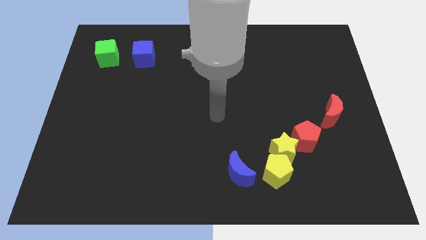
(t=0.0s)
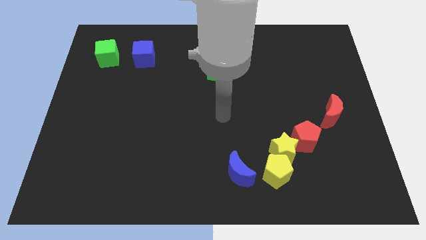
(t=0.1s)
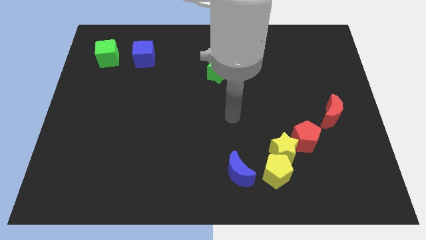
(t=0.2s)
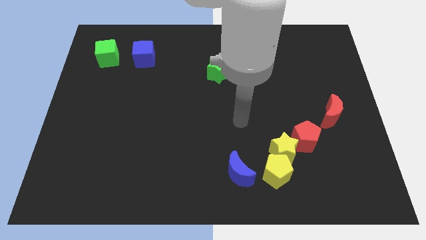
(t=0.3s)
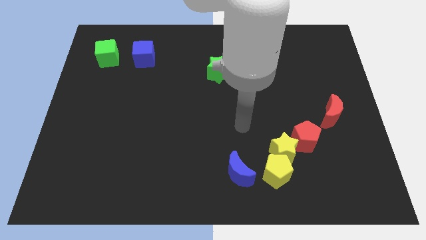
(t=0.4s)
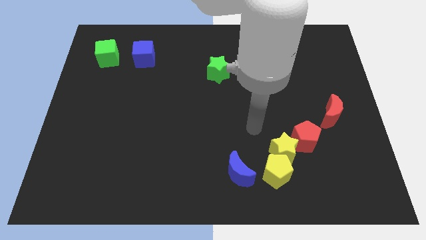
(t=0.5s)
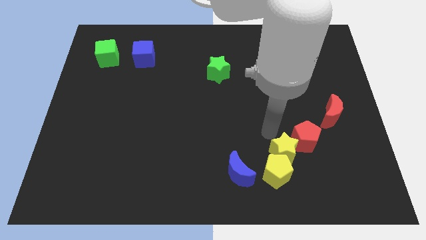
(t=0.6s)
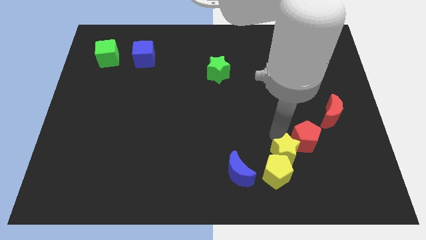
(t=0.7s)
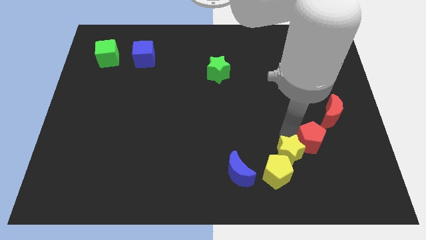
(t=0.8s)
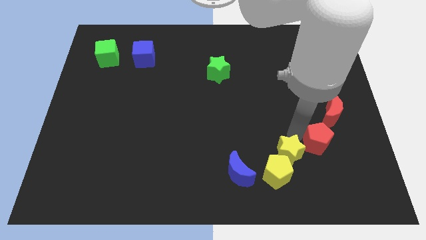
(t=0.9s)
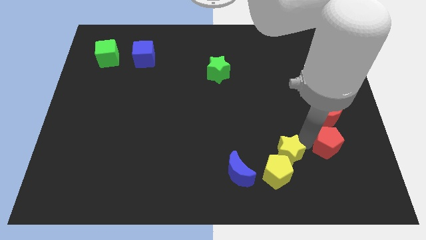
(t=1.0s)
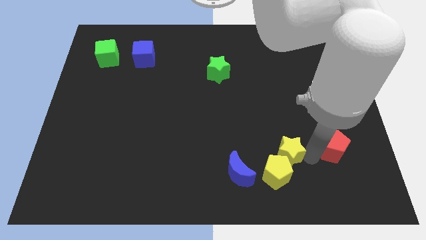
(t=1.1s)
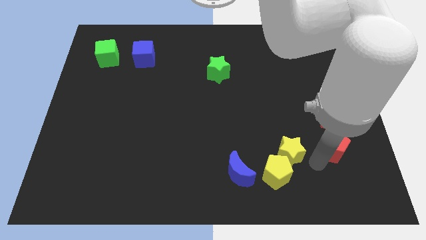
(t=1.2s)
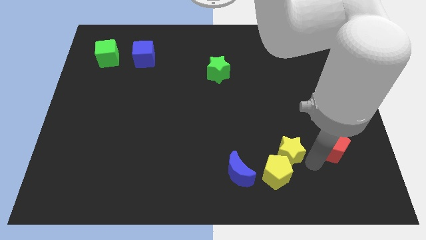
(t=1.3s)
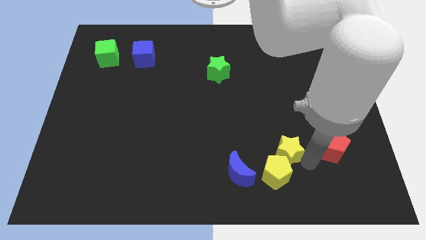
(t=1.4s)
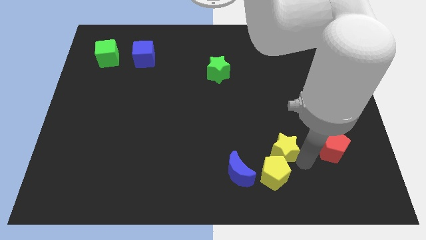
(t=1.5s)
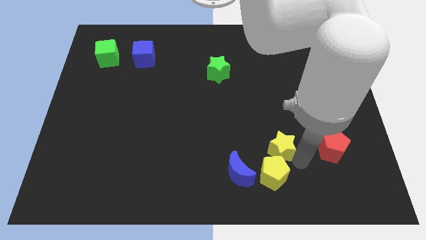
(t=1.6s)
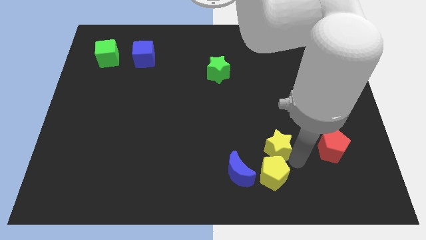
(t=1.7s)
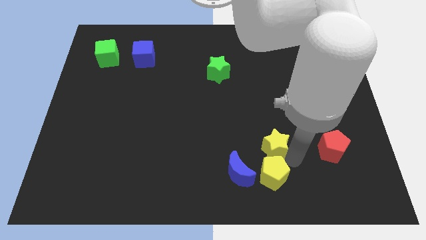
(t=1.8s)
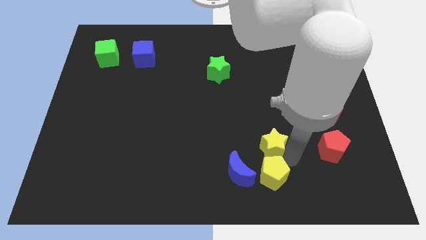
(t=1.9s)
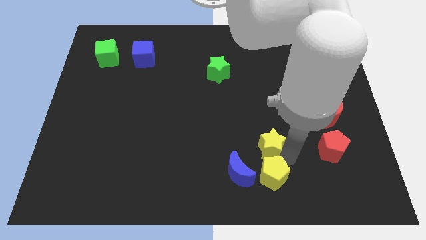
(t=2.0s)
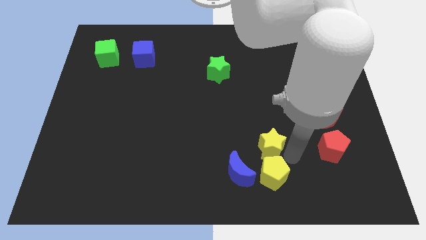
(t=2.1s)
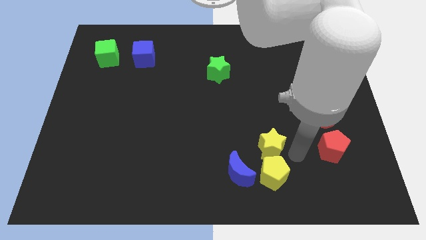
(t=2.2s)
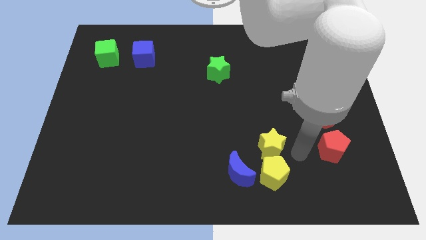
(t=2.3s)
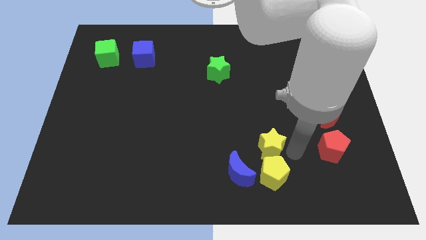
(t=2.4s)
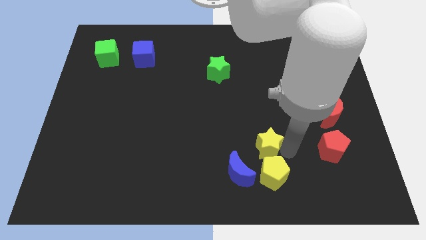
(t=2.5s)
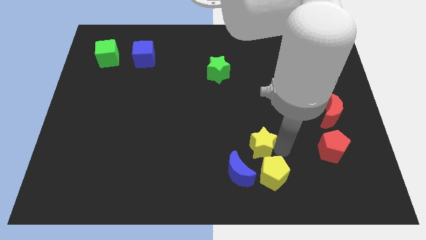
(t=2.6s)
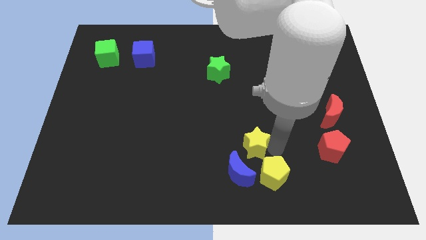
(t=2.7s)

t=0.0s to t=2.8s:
move the yellow star away from the yellow pentagon and red pentagon

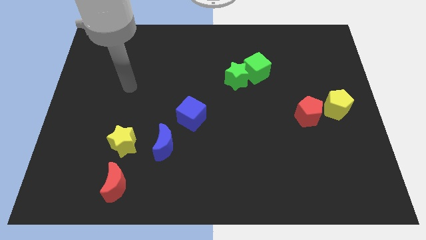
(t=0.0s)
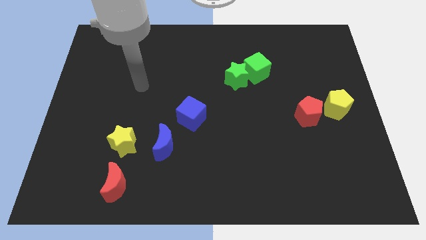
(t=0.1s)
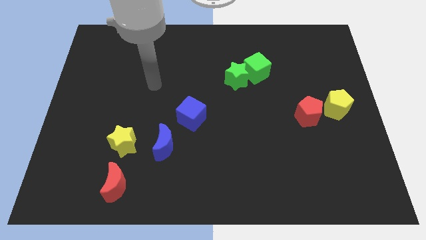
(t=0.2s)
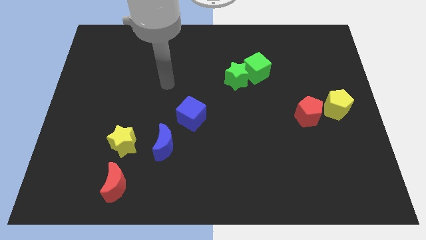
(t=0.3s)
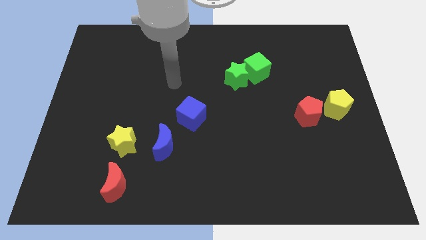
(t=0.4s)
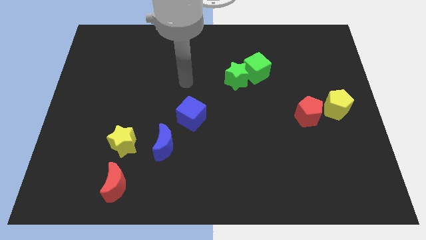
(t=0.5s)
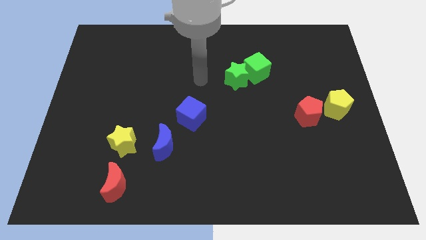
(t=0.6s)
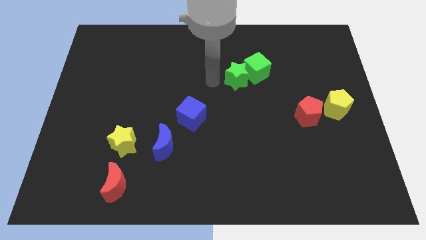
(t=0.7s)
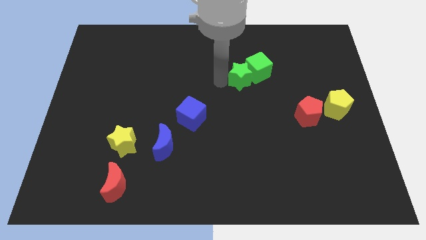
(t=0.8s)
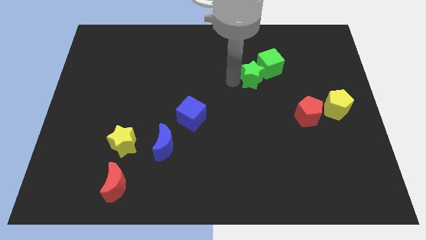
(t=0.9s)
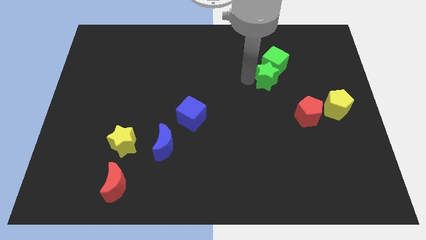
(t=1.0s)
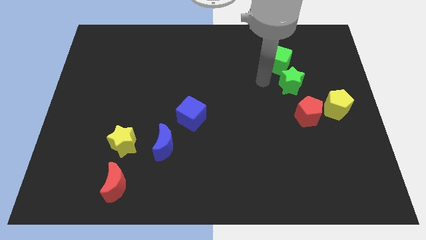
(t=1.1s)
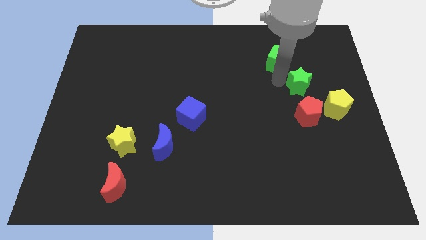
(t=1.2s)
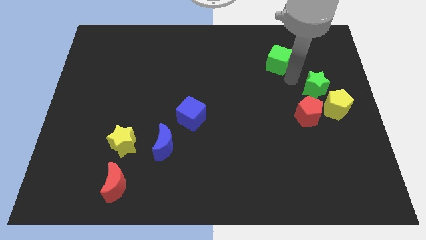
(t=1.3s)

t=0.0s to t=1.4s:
separate the green cube from the green star

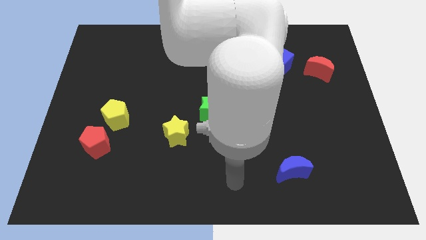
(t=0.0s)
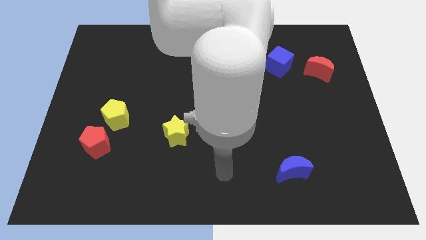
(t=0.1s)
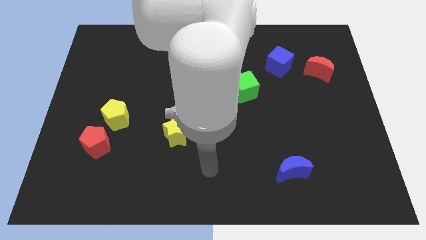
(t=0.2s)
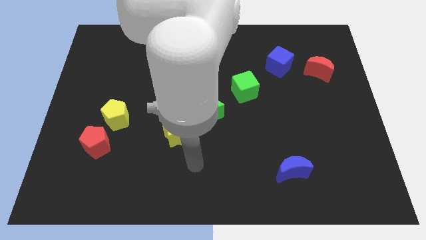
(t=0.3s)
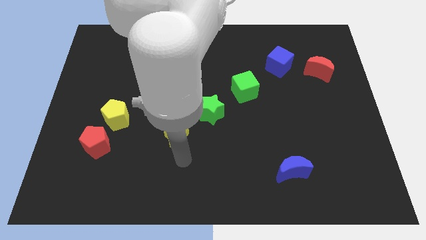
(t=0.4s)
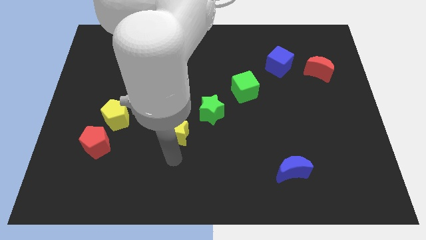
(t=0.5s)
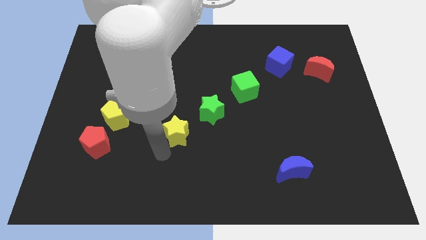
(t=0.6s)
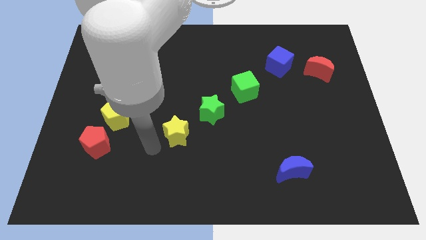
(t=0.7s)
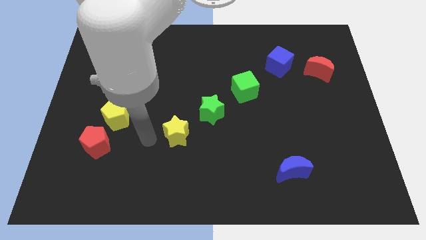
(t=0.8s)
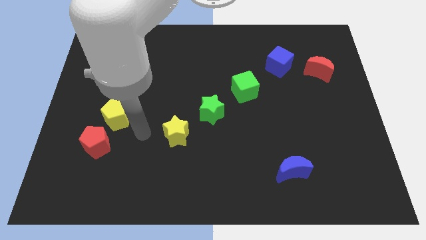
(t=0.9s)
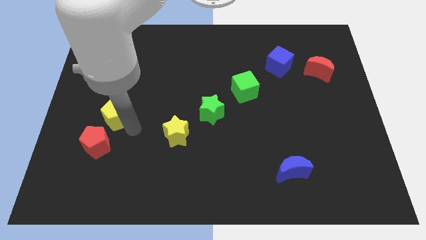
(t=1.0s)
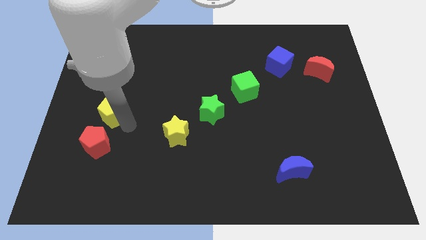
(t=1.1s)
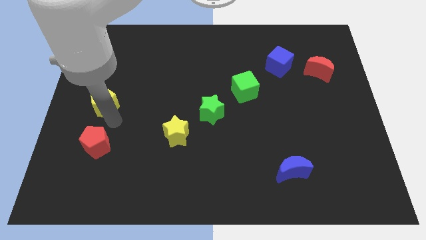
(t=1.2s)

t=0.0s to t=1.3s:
separate the red pentagon from the yellow pentagon

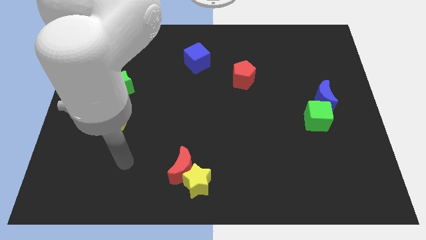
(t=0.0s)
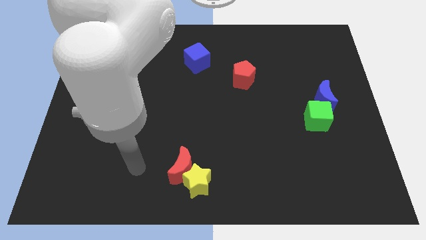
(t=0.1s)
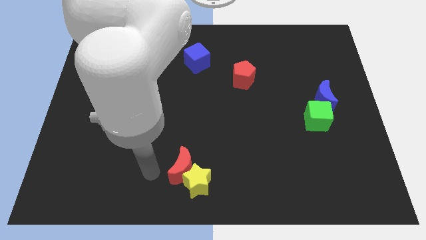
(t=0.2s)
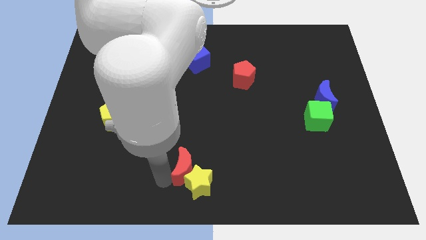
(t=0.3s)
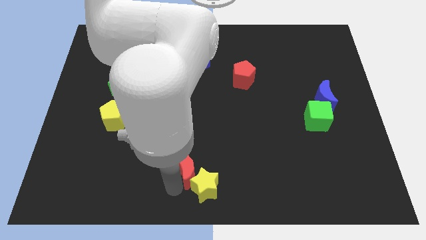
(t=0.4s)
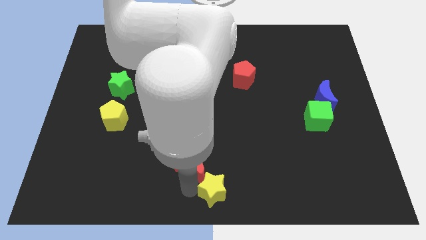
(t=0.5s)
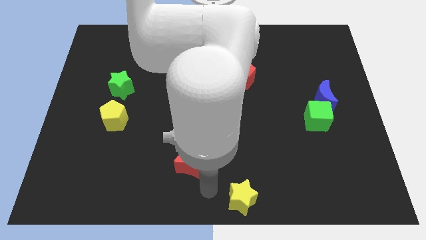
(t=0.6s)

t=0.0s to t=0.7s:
pull the red moon apart from the yellow star

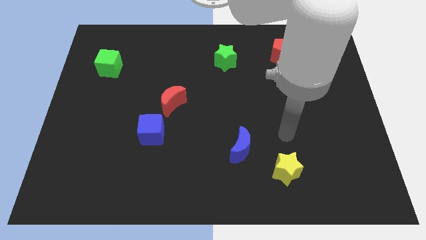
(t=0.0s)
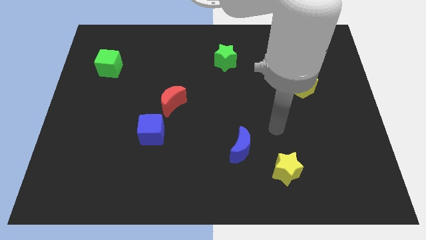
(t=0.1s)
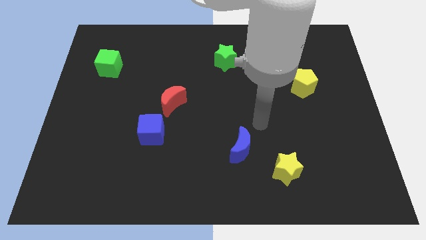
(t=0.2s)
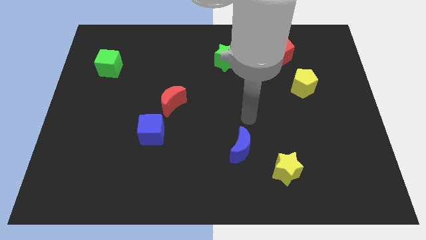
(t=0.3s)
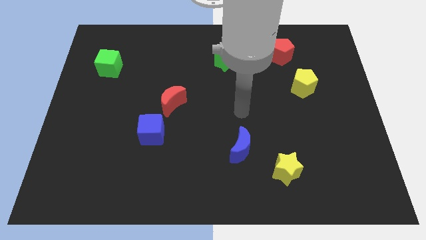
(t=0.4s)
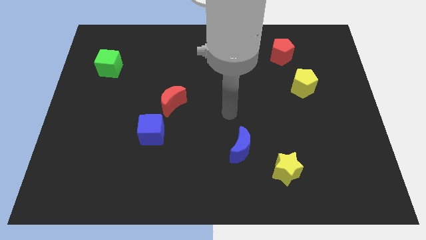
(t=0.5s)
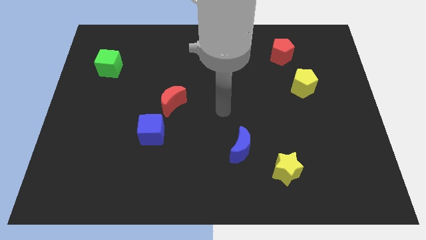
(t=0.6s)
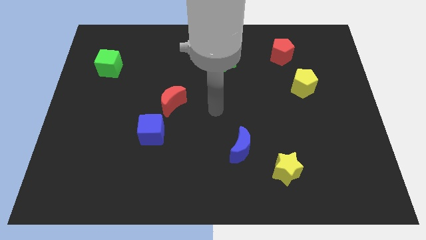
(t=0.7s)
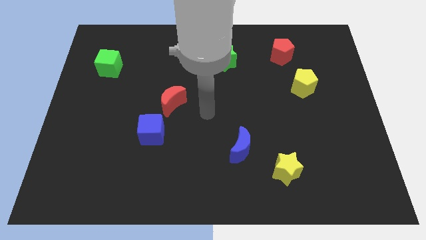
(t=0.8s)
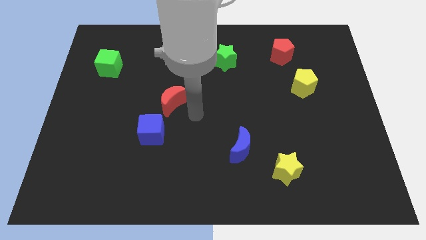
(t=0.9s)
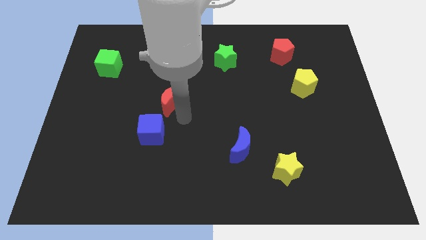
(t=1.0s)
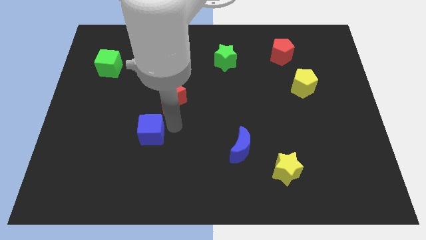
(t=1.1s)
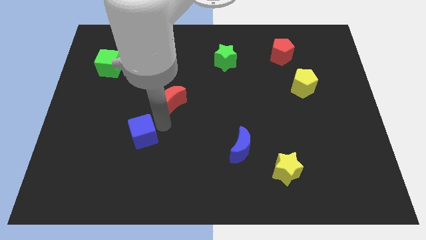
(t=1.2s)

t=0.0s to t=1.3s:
pull the red moon apart from the blue cube

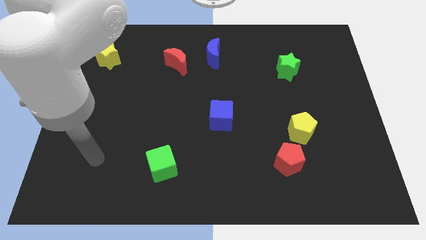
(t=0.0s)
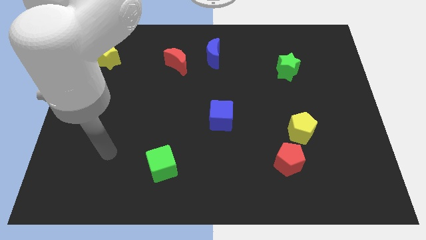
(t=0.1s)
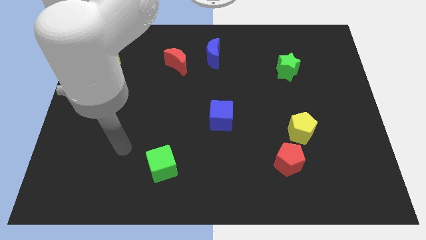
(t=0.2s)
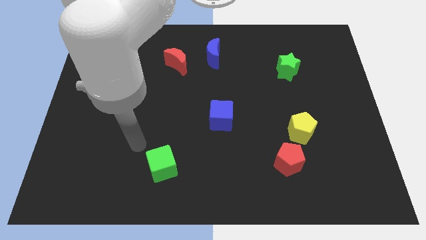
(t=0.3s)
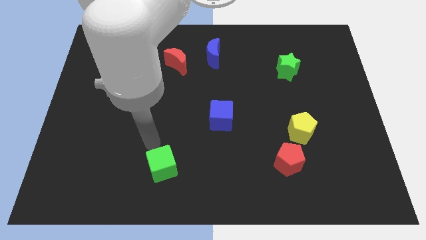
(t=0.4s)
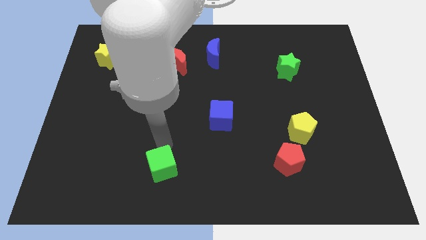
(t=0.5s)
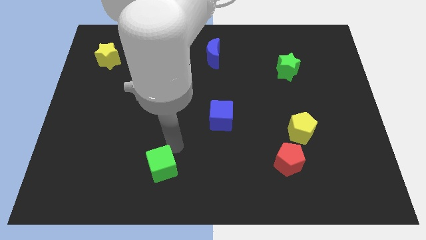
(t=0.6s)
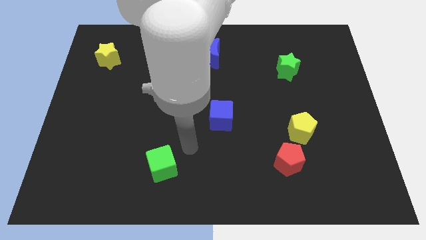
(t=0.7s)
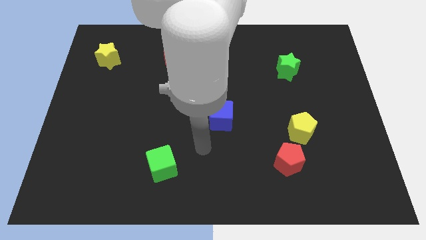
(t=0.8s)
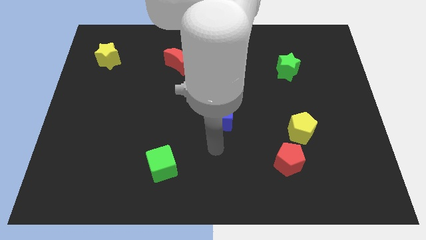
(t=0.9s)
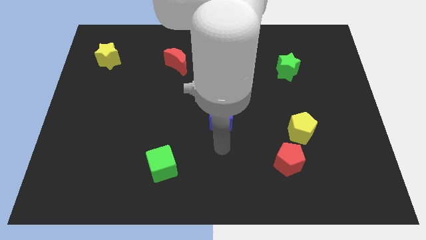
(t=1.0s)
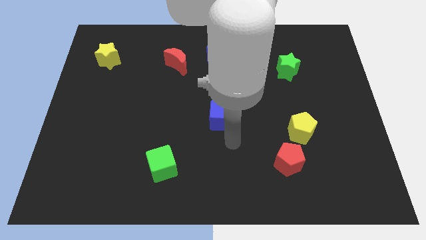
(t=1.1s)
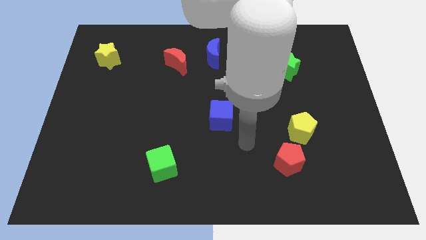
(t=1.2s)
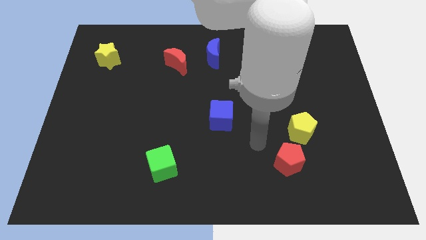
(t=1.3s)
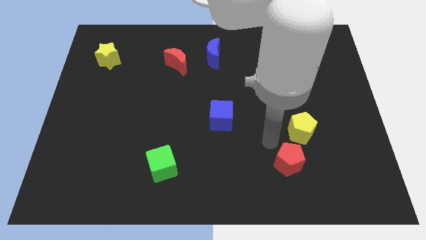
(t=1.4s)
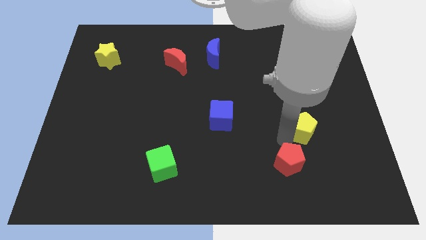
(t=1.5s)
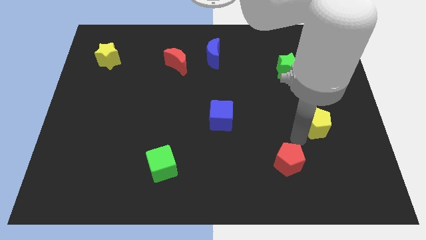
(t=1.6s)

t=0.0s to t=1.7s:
pull the red pentagon apart from the yellow pentagon
